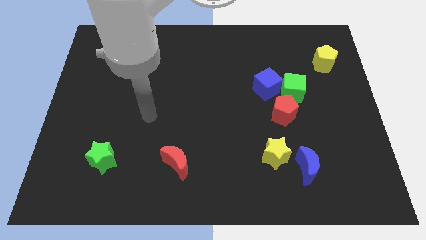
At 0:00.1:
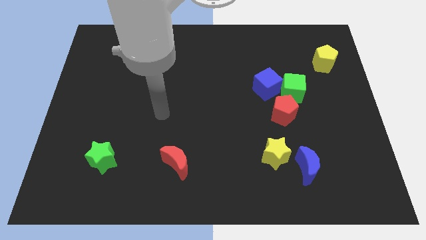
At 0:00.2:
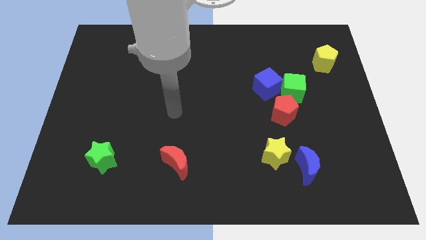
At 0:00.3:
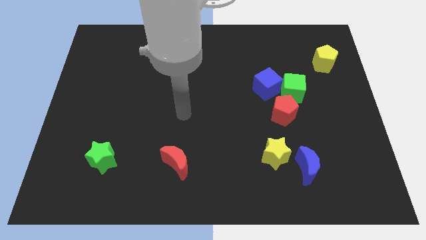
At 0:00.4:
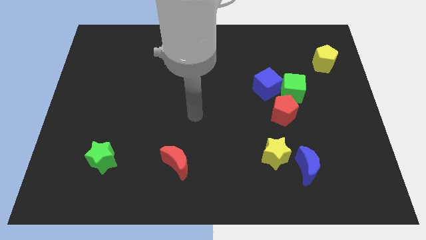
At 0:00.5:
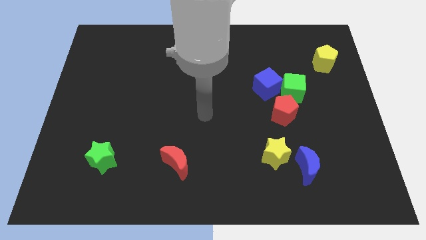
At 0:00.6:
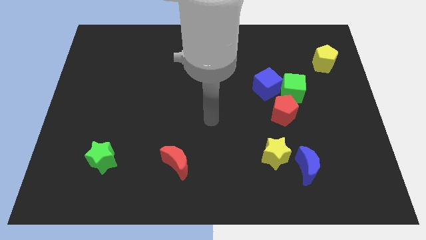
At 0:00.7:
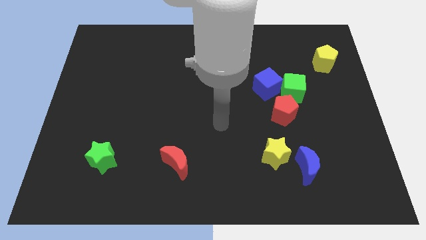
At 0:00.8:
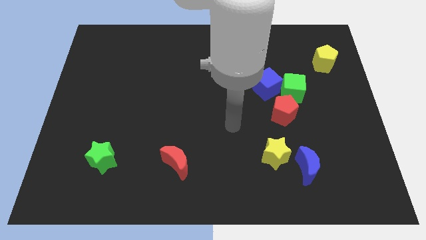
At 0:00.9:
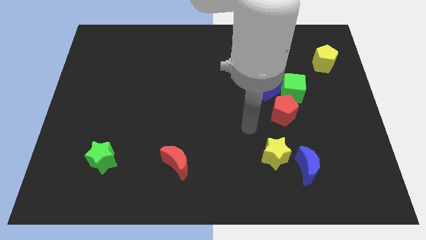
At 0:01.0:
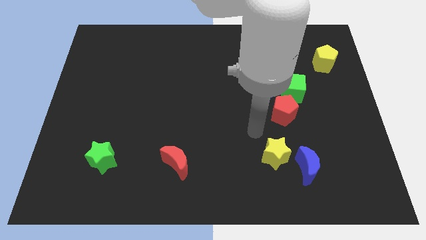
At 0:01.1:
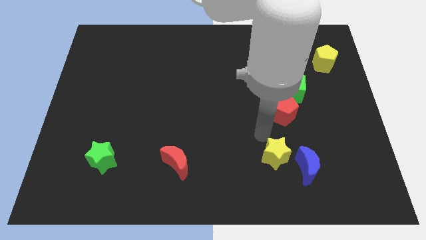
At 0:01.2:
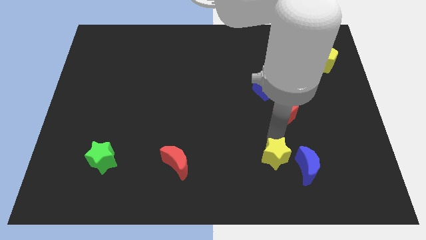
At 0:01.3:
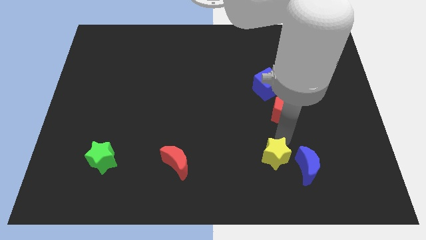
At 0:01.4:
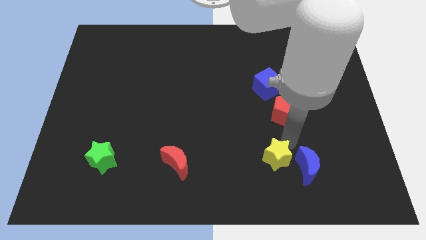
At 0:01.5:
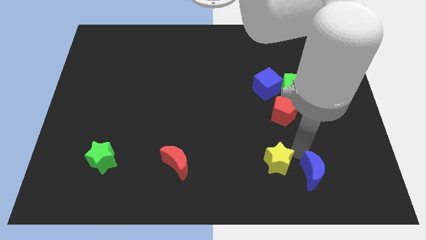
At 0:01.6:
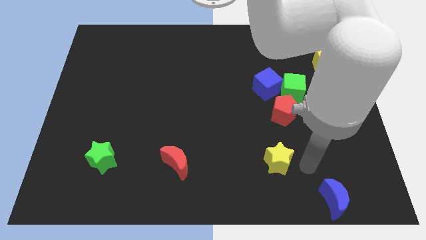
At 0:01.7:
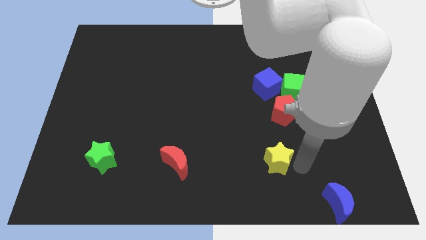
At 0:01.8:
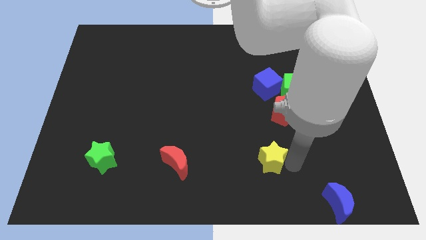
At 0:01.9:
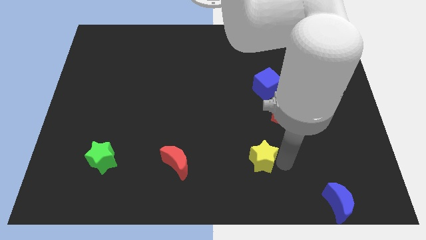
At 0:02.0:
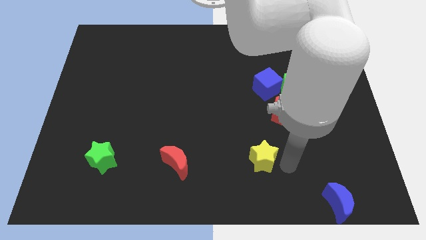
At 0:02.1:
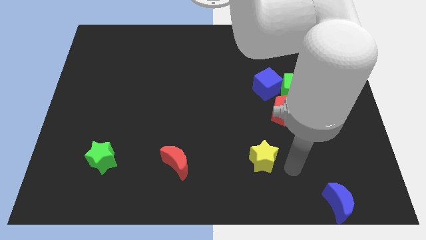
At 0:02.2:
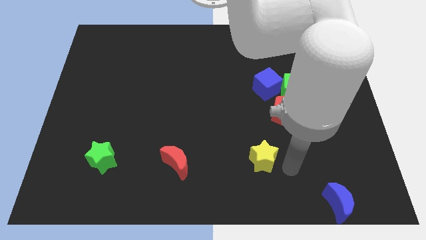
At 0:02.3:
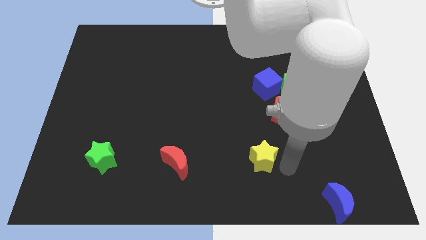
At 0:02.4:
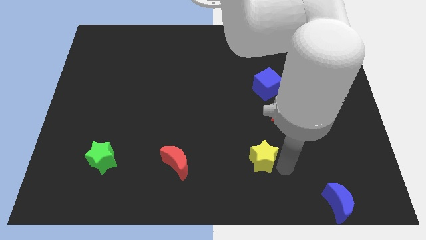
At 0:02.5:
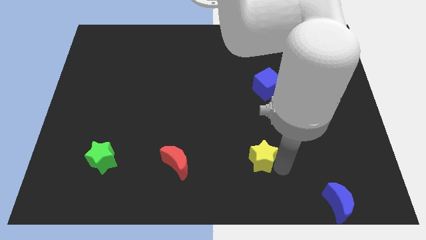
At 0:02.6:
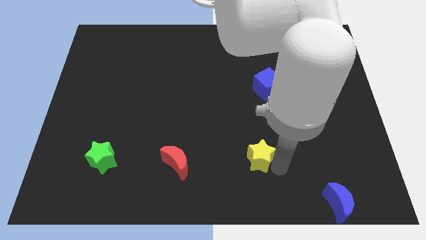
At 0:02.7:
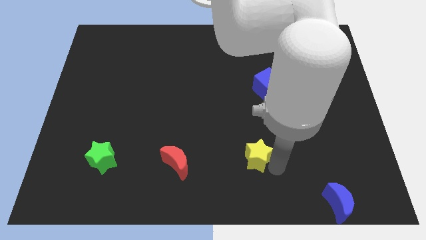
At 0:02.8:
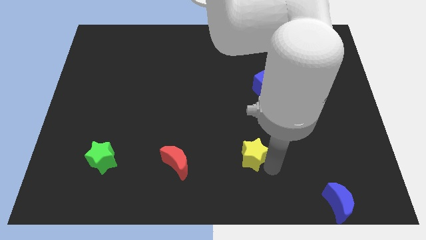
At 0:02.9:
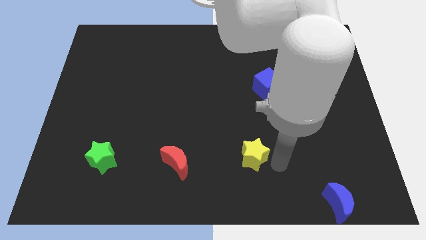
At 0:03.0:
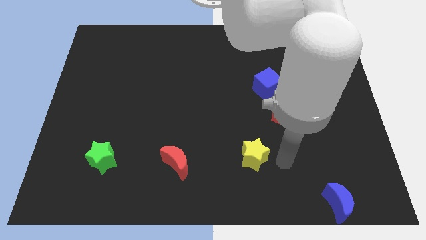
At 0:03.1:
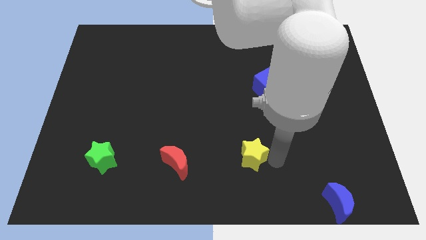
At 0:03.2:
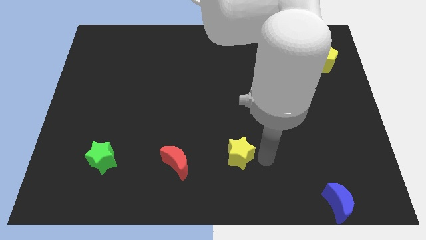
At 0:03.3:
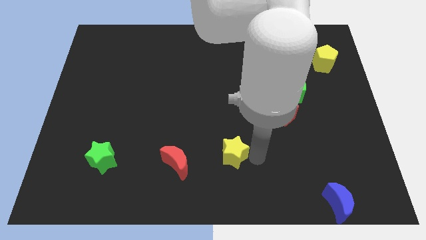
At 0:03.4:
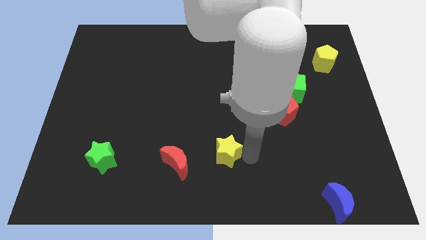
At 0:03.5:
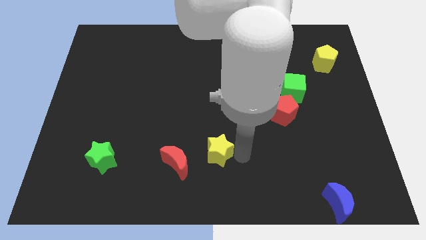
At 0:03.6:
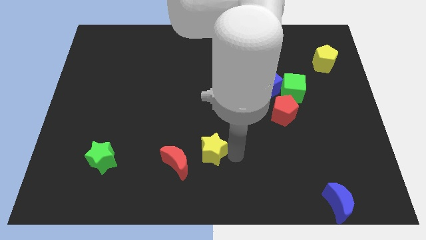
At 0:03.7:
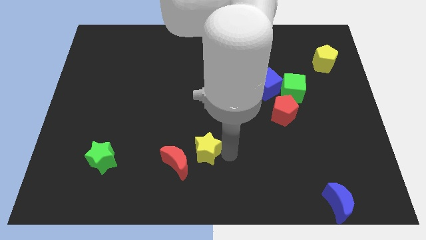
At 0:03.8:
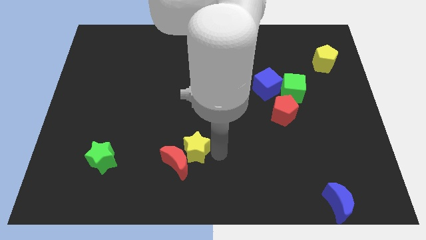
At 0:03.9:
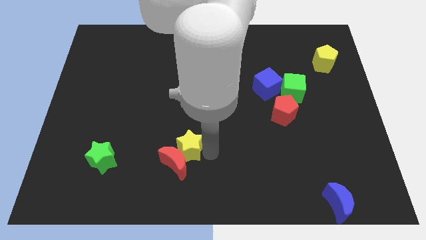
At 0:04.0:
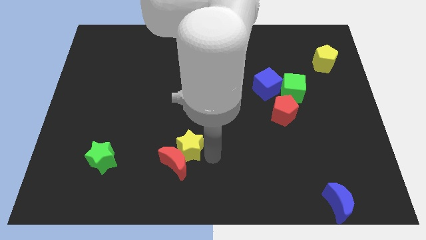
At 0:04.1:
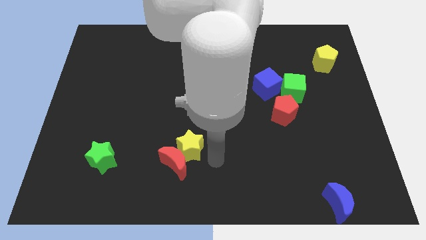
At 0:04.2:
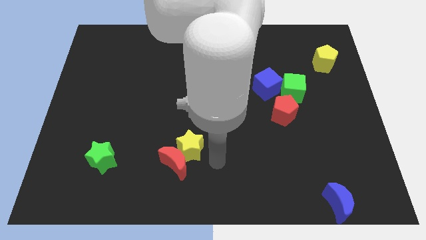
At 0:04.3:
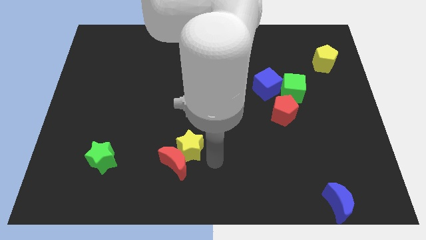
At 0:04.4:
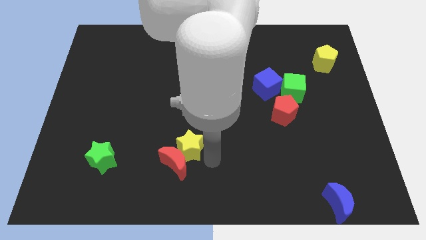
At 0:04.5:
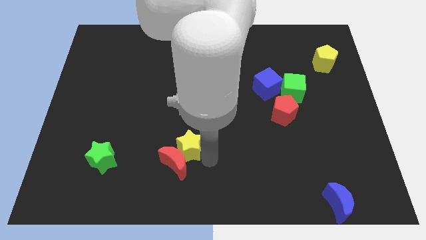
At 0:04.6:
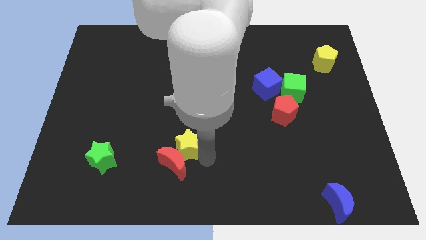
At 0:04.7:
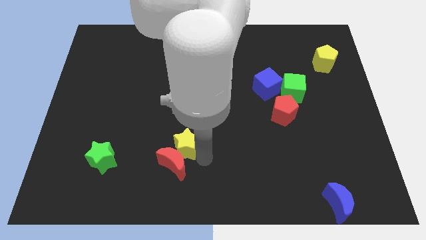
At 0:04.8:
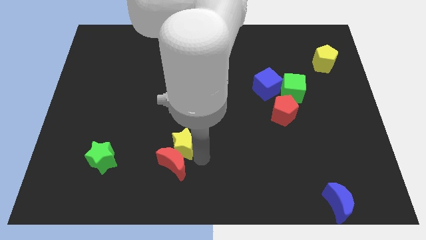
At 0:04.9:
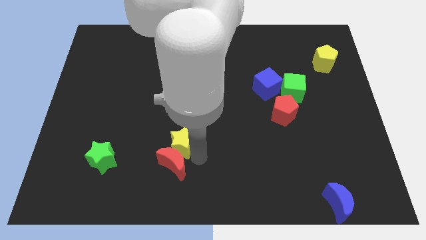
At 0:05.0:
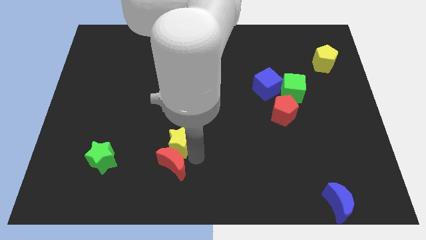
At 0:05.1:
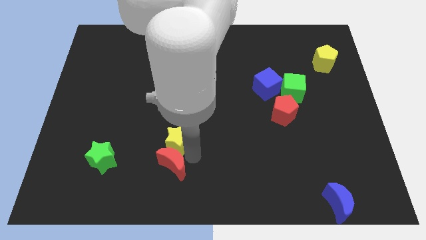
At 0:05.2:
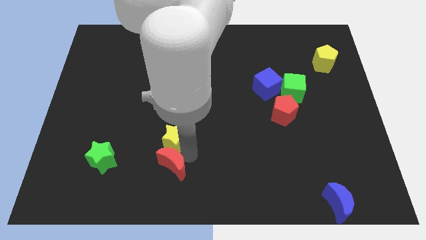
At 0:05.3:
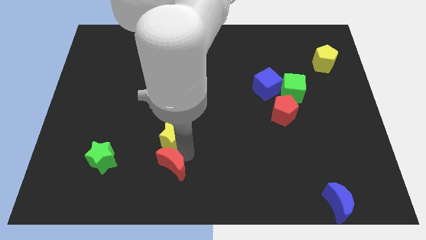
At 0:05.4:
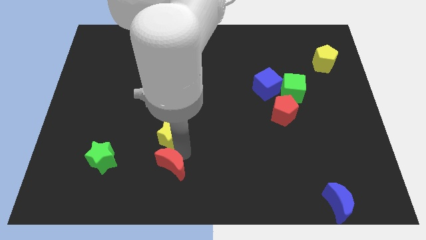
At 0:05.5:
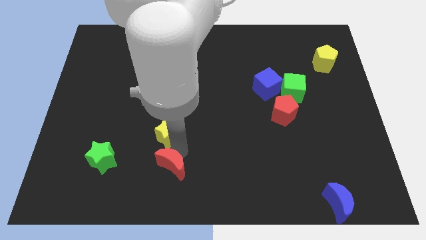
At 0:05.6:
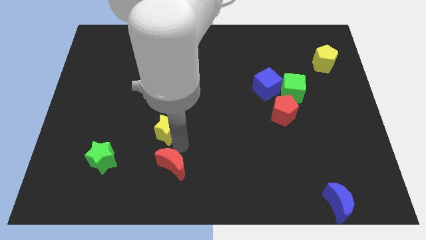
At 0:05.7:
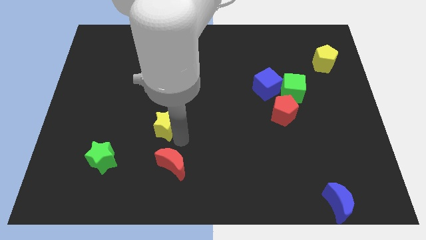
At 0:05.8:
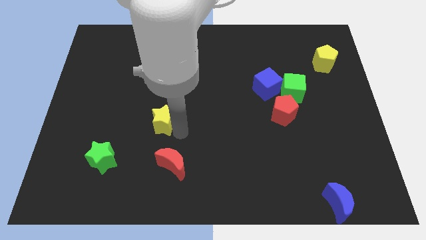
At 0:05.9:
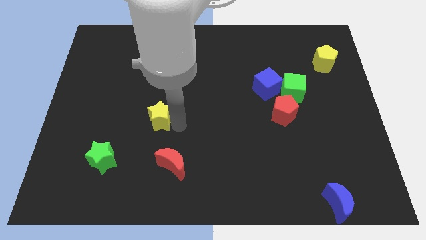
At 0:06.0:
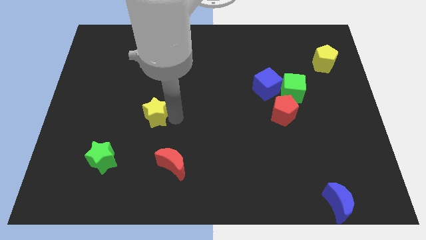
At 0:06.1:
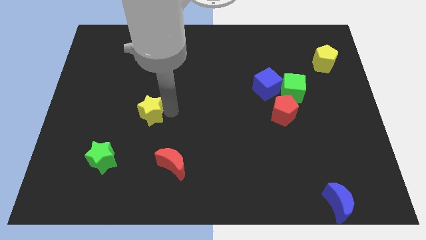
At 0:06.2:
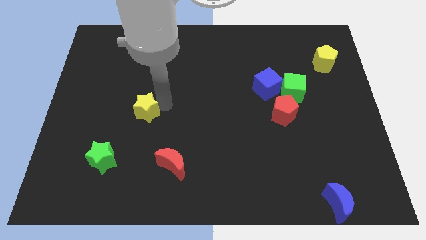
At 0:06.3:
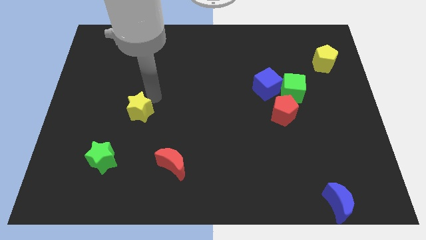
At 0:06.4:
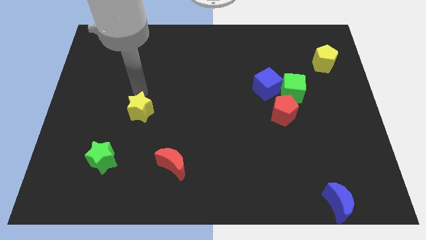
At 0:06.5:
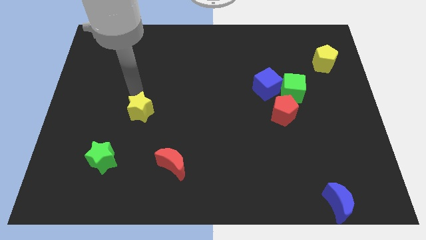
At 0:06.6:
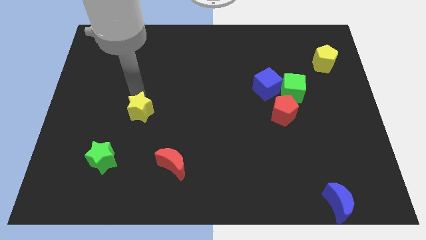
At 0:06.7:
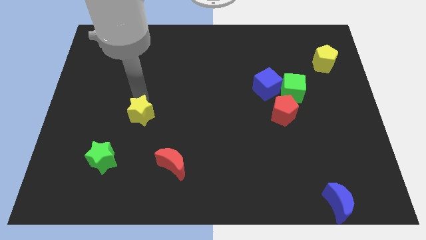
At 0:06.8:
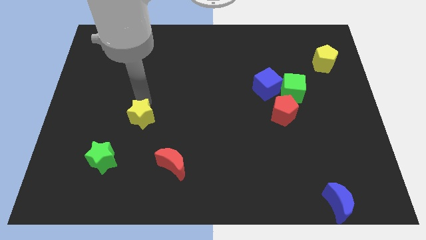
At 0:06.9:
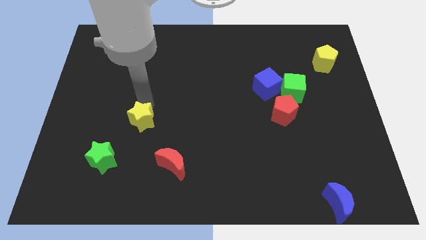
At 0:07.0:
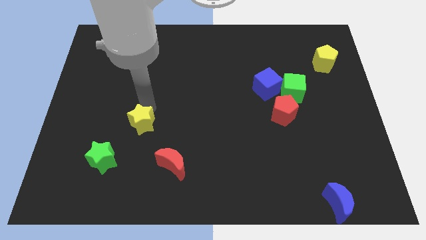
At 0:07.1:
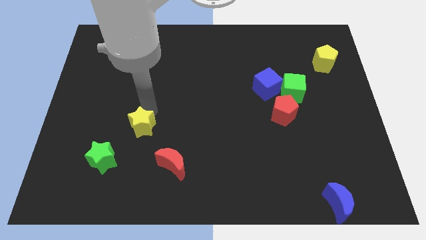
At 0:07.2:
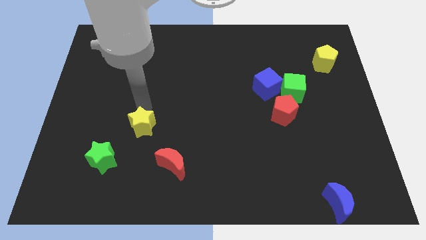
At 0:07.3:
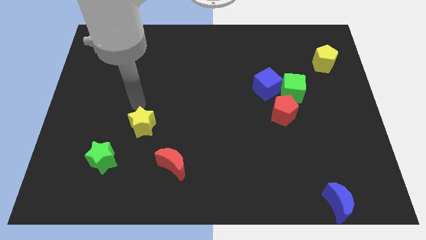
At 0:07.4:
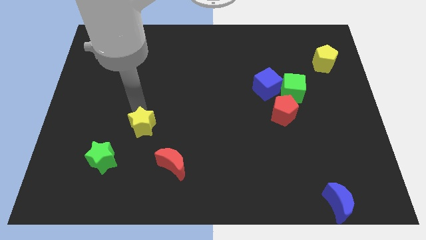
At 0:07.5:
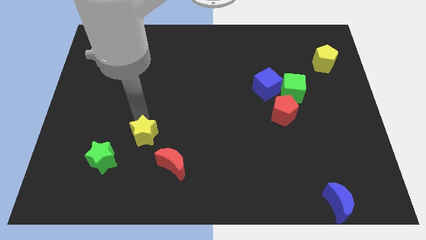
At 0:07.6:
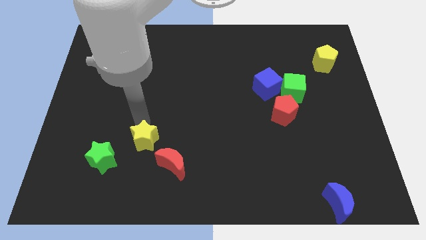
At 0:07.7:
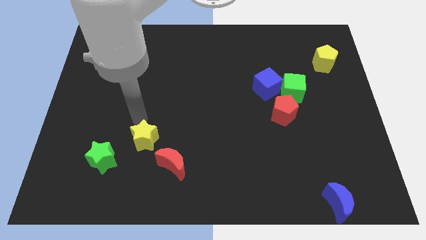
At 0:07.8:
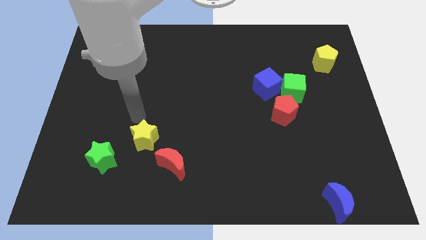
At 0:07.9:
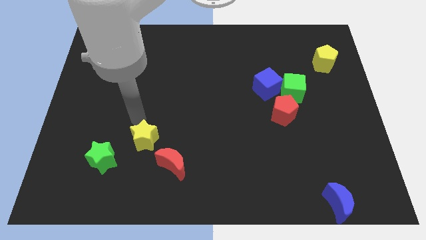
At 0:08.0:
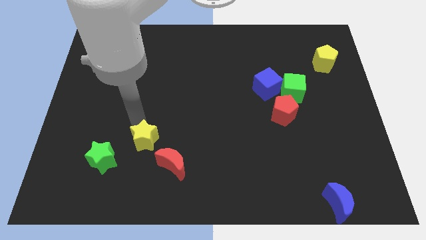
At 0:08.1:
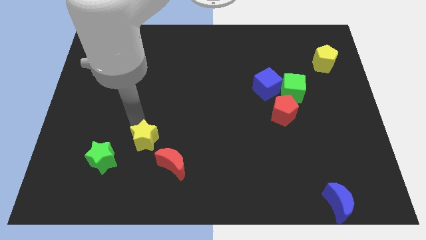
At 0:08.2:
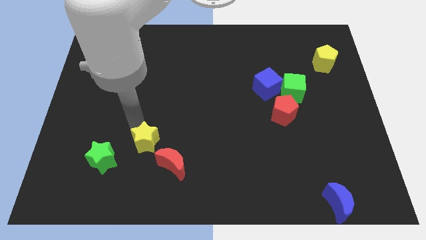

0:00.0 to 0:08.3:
slide the yellow star right of the green star

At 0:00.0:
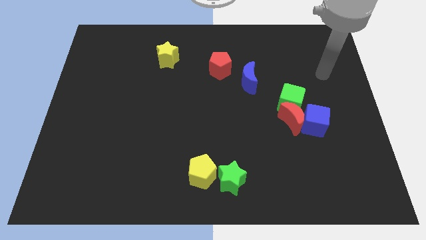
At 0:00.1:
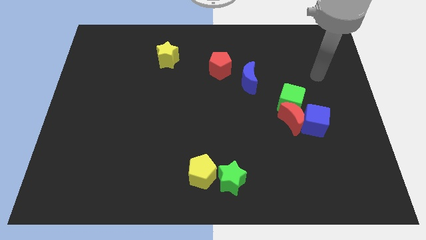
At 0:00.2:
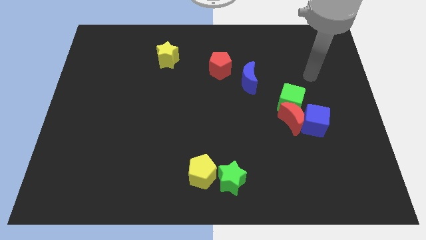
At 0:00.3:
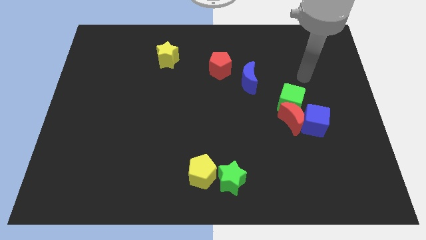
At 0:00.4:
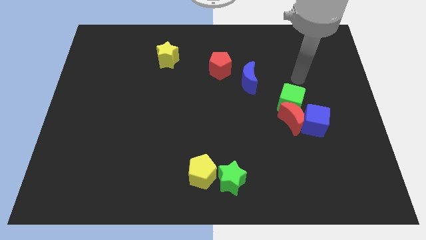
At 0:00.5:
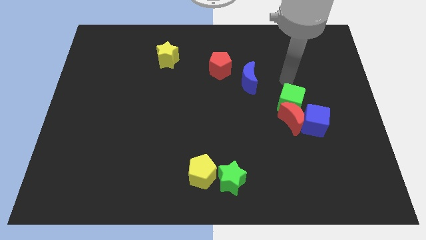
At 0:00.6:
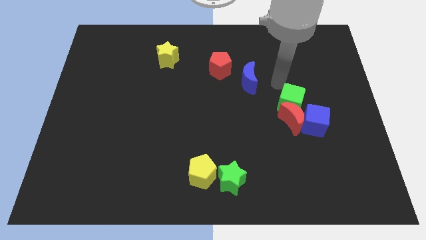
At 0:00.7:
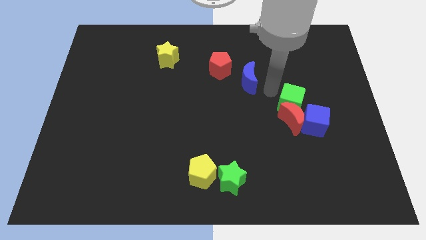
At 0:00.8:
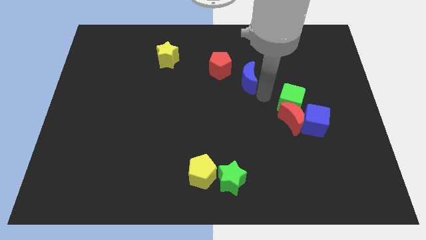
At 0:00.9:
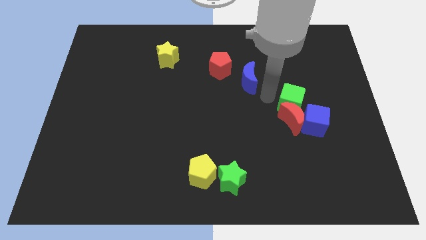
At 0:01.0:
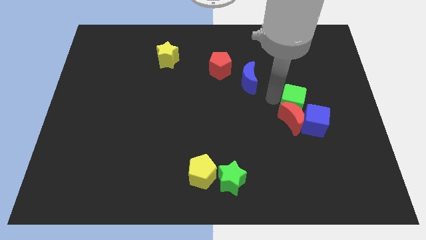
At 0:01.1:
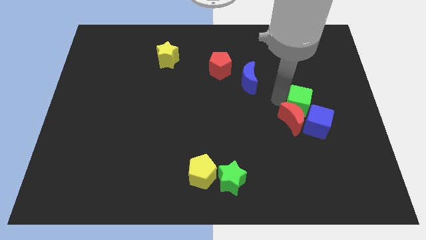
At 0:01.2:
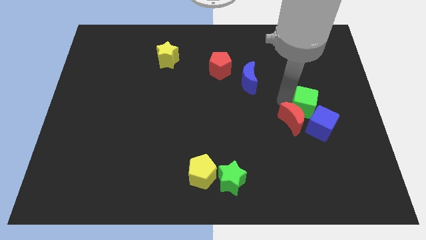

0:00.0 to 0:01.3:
push the green cube right of the red moon
